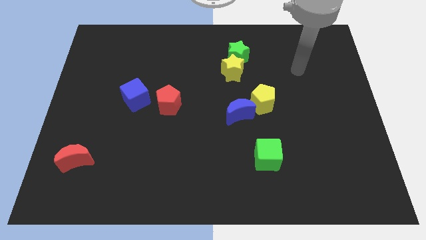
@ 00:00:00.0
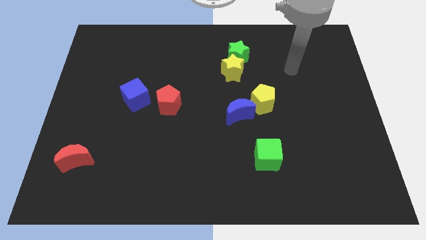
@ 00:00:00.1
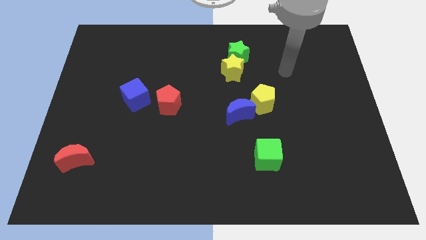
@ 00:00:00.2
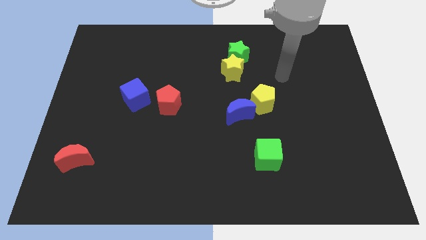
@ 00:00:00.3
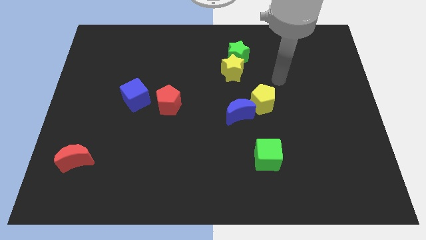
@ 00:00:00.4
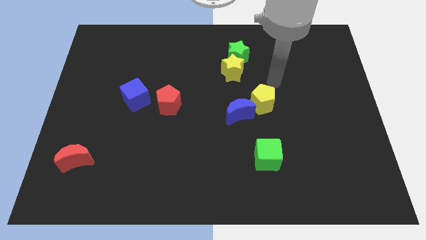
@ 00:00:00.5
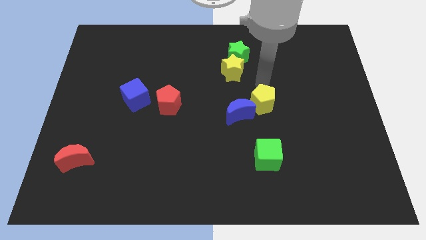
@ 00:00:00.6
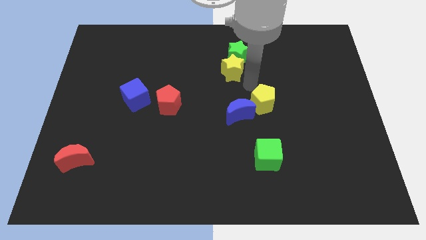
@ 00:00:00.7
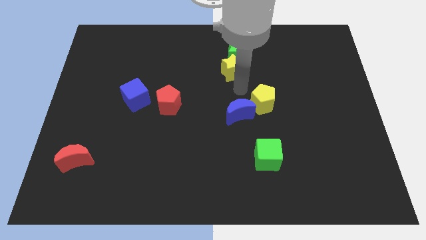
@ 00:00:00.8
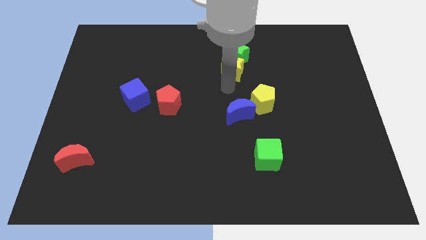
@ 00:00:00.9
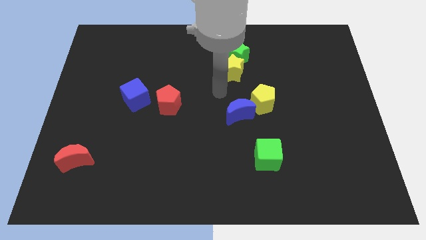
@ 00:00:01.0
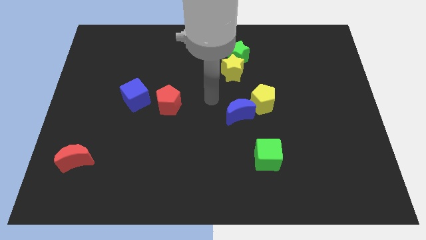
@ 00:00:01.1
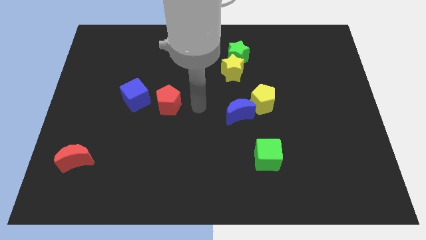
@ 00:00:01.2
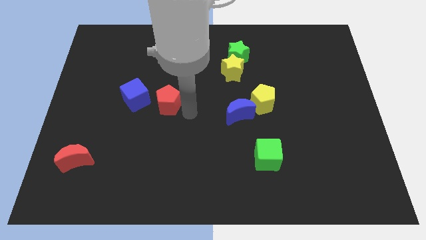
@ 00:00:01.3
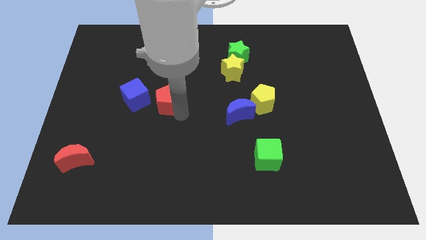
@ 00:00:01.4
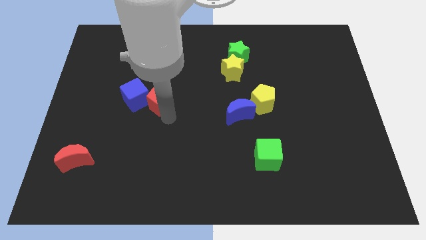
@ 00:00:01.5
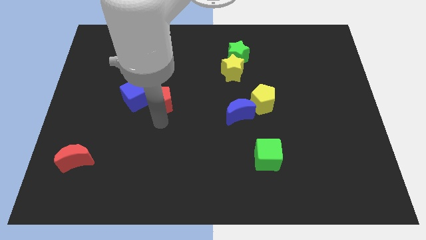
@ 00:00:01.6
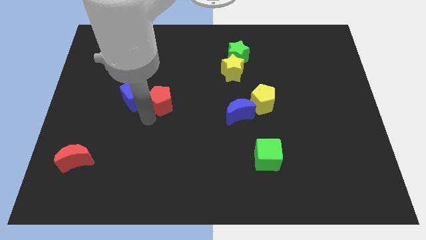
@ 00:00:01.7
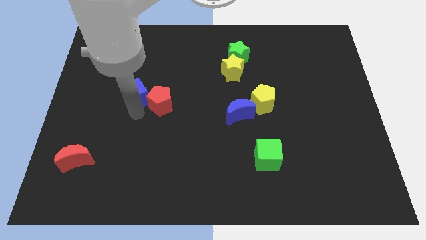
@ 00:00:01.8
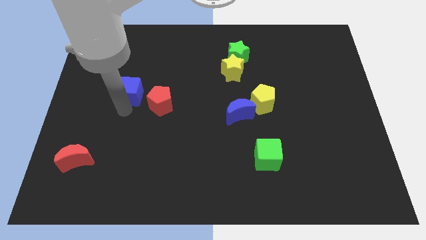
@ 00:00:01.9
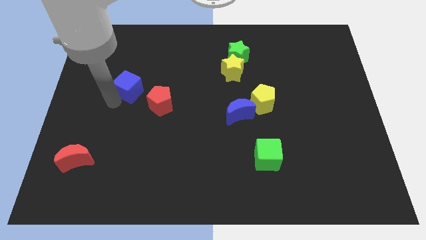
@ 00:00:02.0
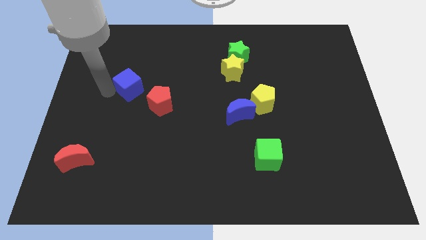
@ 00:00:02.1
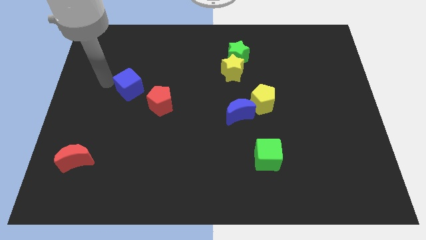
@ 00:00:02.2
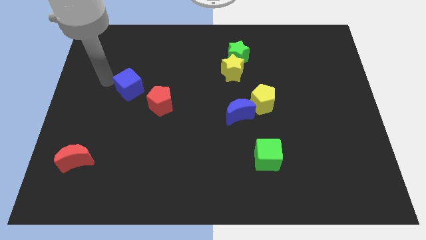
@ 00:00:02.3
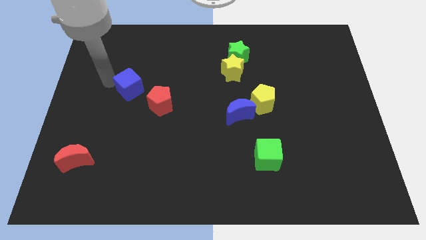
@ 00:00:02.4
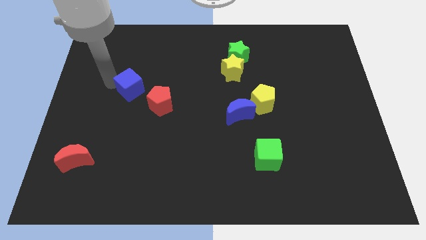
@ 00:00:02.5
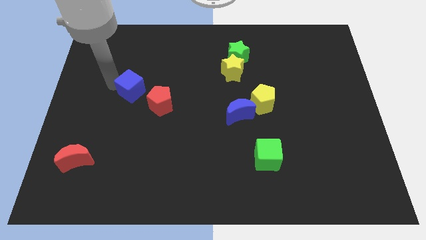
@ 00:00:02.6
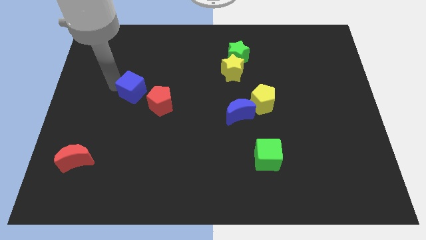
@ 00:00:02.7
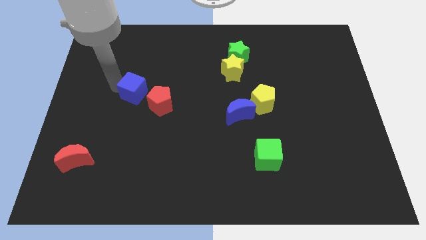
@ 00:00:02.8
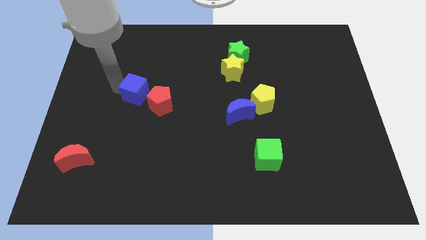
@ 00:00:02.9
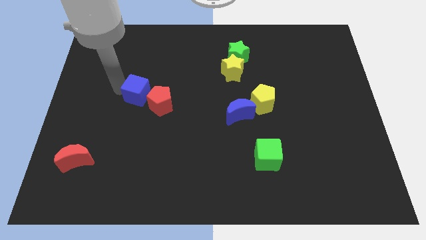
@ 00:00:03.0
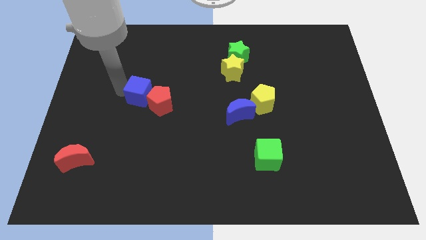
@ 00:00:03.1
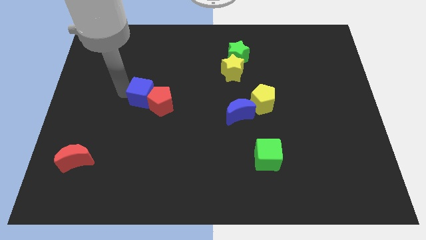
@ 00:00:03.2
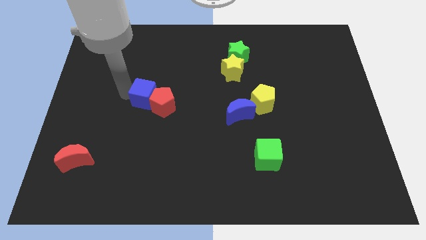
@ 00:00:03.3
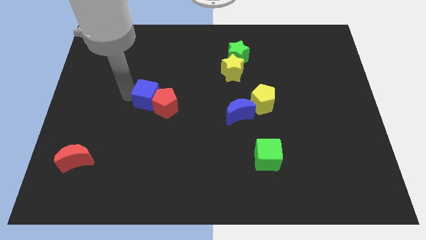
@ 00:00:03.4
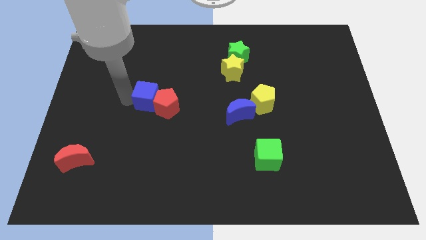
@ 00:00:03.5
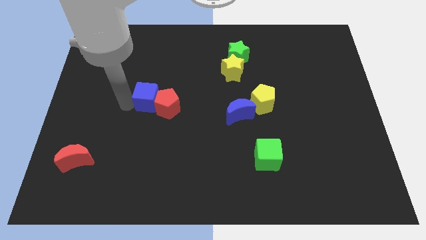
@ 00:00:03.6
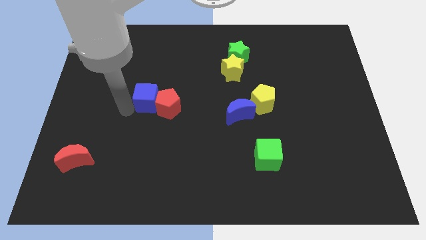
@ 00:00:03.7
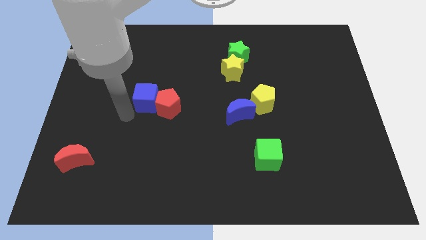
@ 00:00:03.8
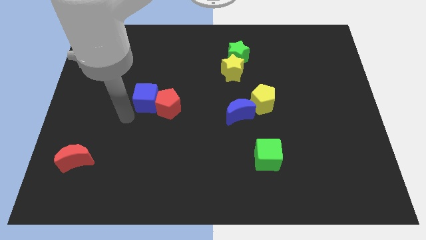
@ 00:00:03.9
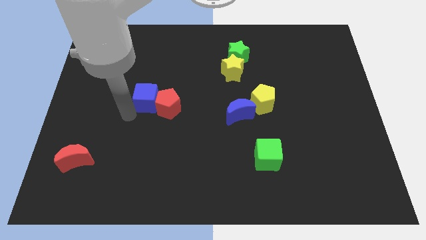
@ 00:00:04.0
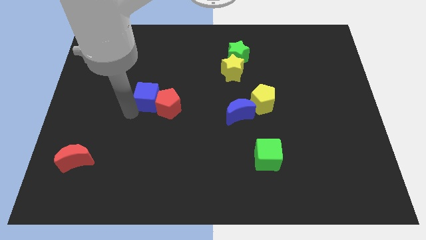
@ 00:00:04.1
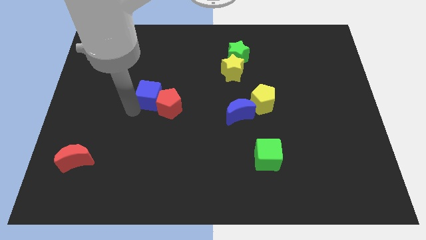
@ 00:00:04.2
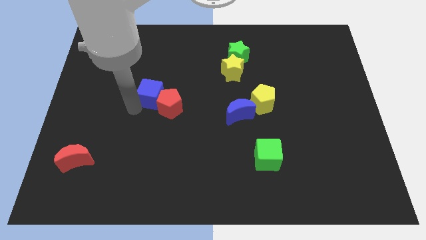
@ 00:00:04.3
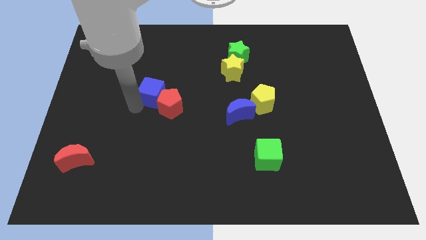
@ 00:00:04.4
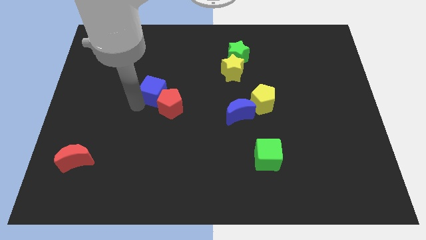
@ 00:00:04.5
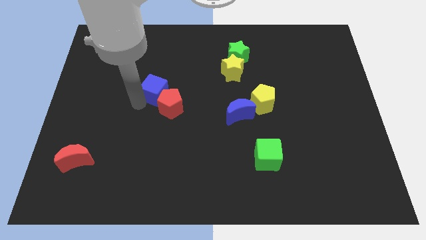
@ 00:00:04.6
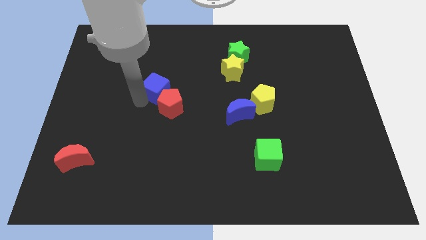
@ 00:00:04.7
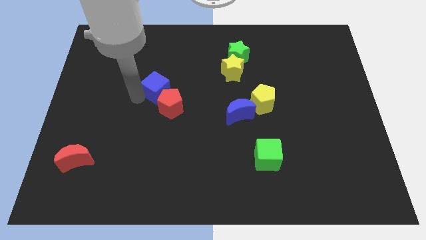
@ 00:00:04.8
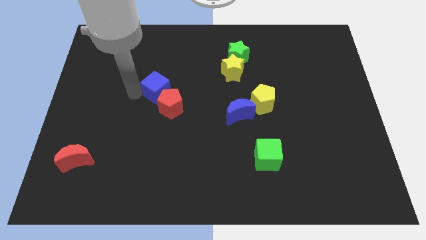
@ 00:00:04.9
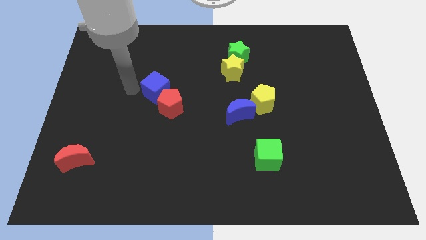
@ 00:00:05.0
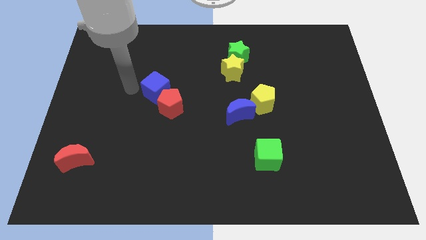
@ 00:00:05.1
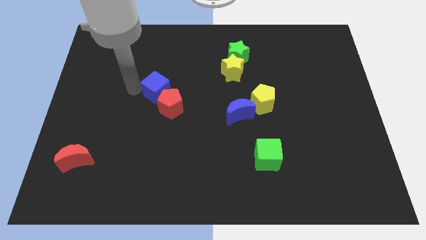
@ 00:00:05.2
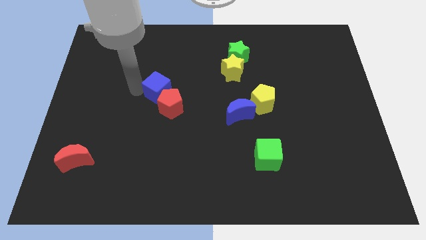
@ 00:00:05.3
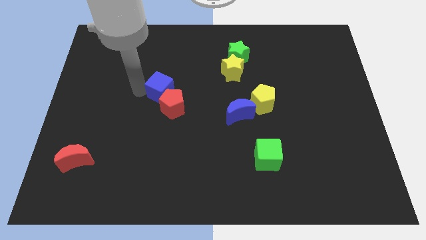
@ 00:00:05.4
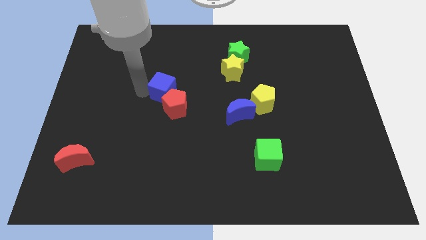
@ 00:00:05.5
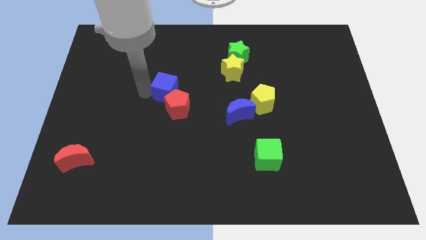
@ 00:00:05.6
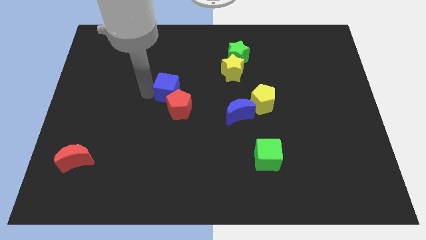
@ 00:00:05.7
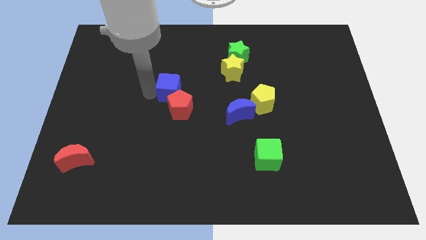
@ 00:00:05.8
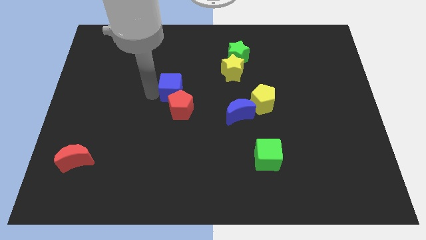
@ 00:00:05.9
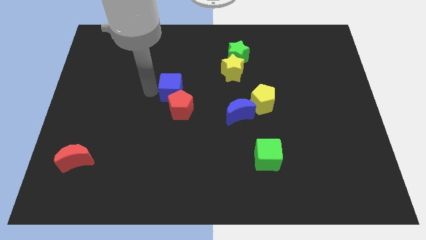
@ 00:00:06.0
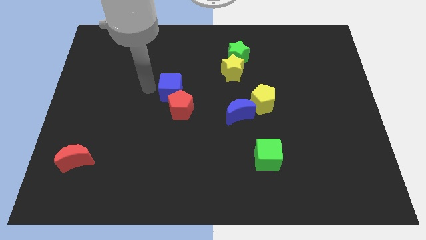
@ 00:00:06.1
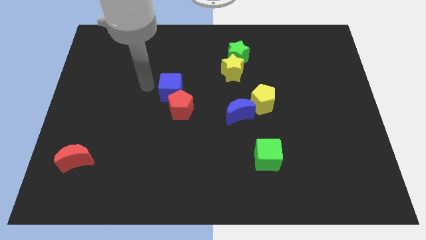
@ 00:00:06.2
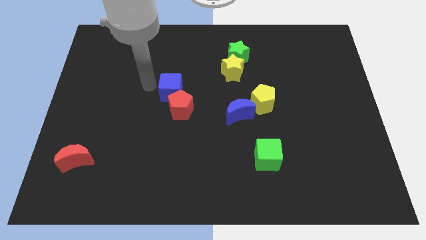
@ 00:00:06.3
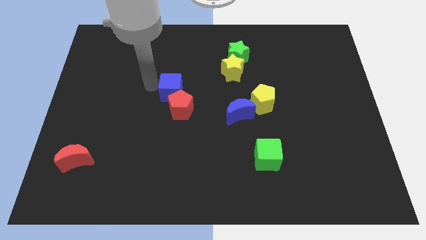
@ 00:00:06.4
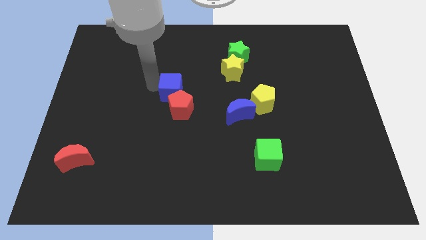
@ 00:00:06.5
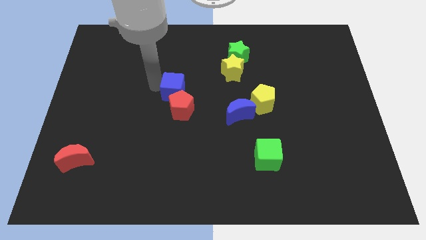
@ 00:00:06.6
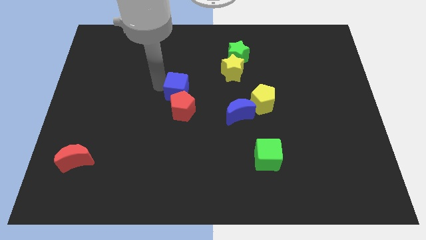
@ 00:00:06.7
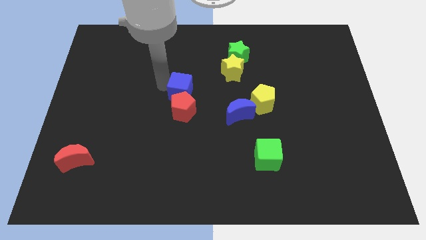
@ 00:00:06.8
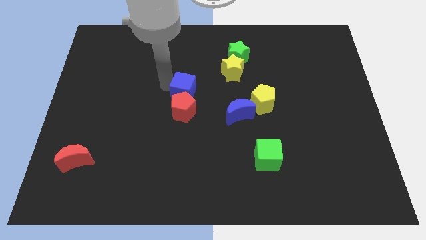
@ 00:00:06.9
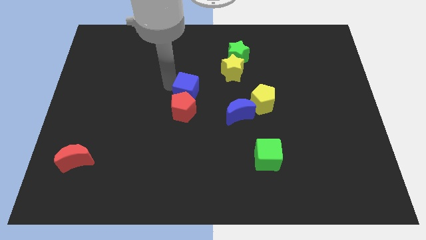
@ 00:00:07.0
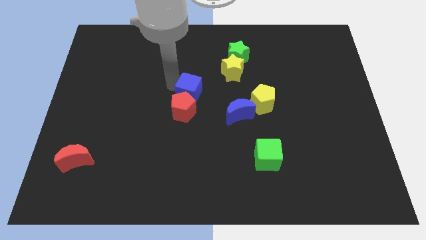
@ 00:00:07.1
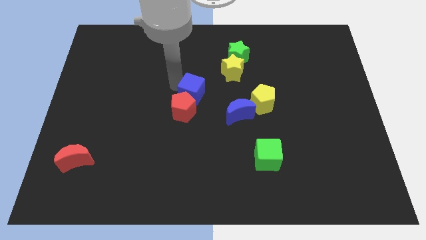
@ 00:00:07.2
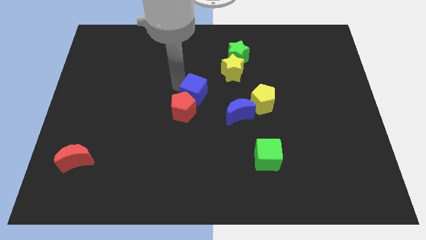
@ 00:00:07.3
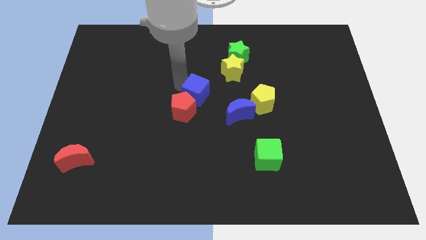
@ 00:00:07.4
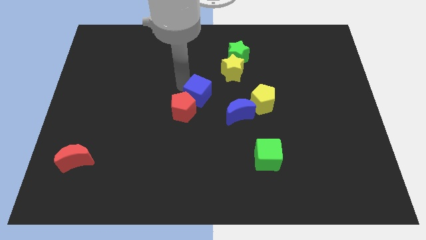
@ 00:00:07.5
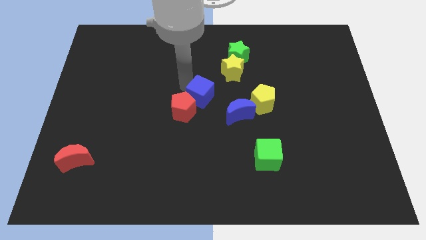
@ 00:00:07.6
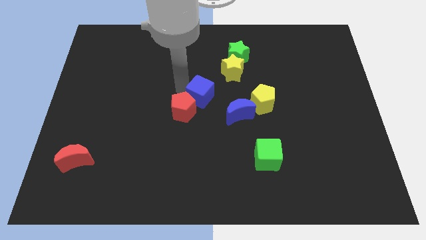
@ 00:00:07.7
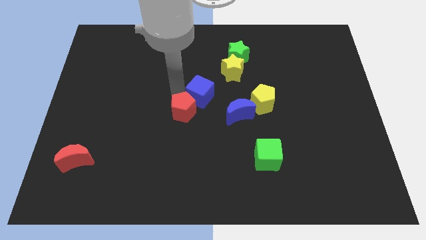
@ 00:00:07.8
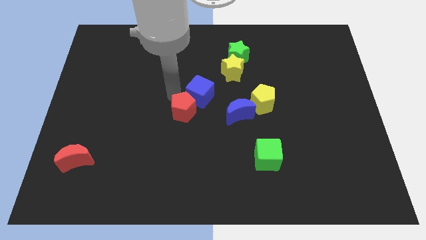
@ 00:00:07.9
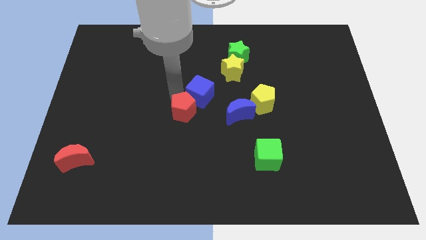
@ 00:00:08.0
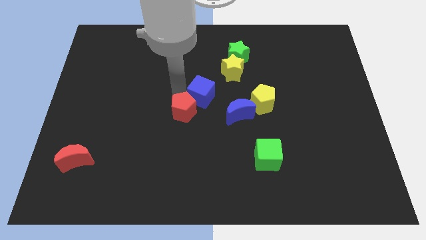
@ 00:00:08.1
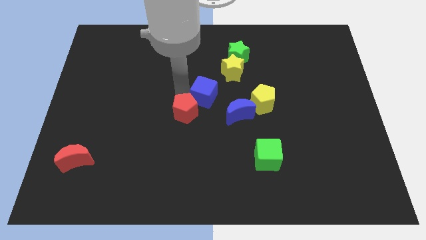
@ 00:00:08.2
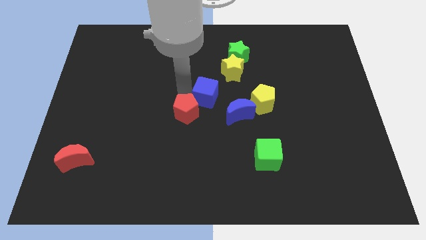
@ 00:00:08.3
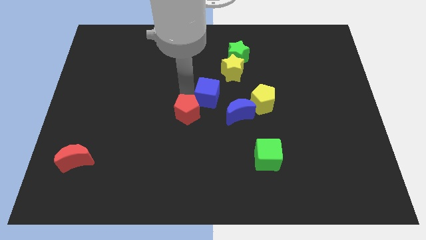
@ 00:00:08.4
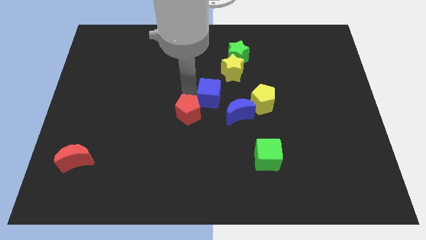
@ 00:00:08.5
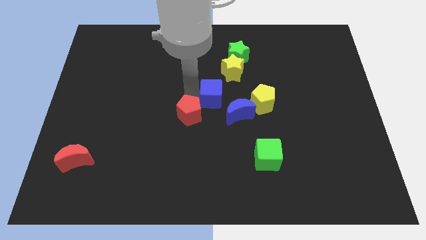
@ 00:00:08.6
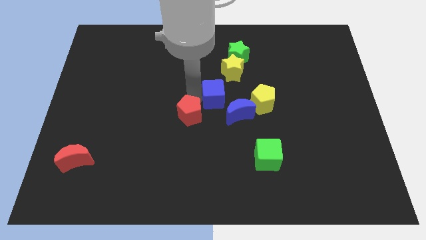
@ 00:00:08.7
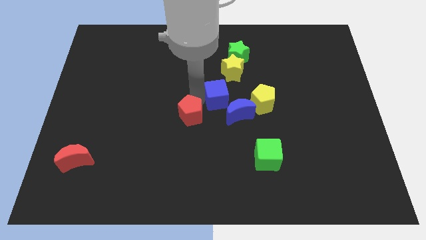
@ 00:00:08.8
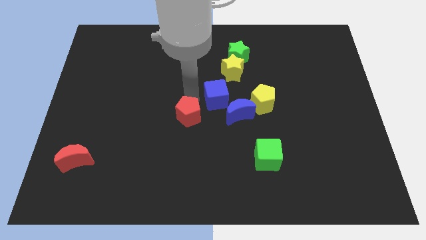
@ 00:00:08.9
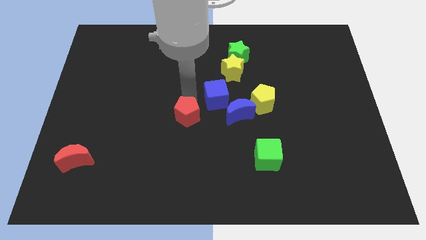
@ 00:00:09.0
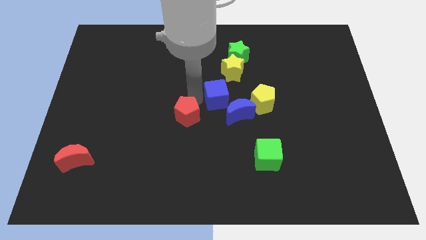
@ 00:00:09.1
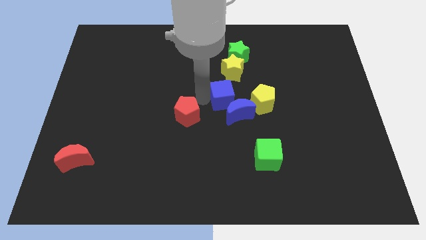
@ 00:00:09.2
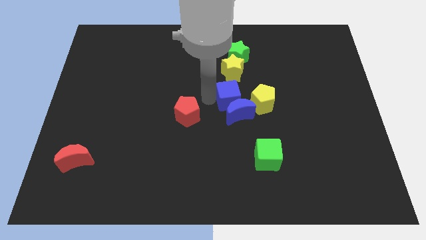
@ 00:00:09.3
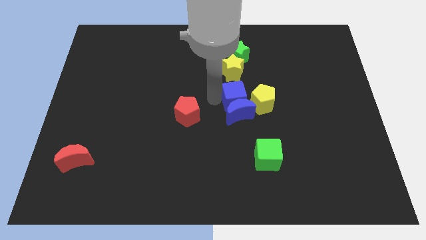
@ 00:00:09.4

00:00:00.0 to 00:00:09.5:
push the blue cube to the top right side of the blue moon
